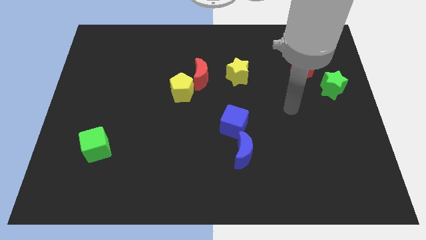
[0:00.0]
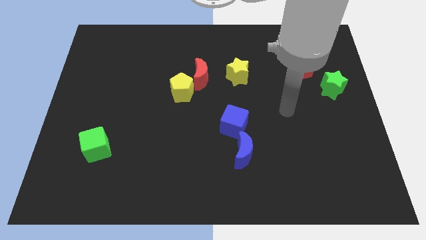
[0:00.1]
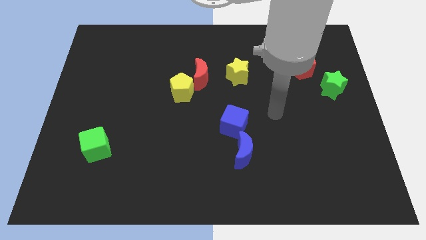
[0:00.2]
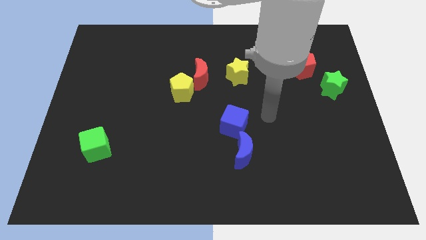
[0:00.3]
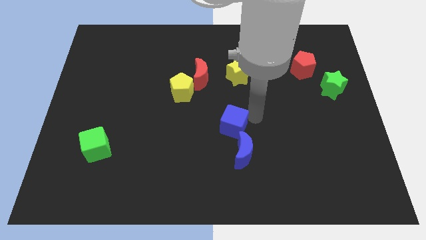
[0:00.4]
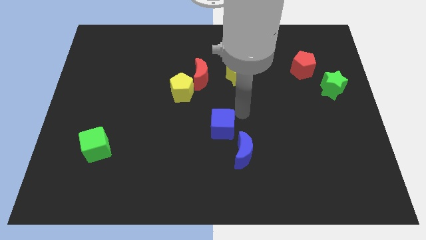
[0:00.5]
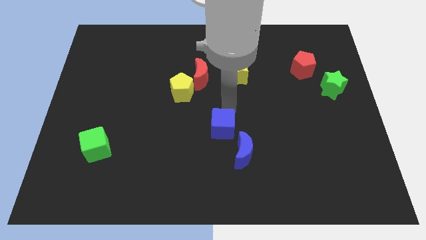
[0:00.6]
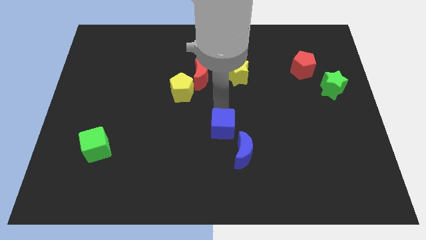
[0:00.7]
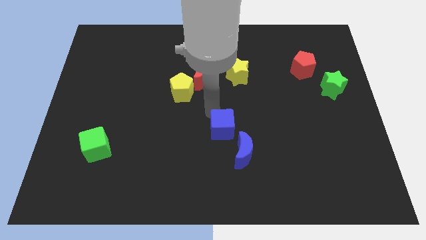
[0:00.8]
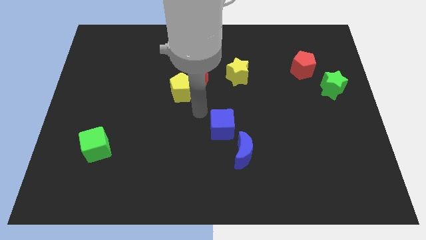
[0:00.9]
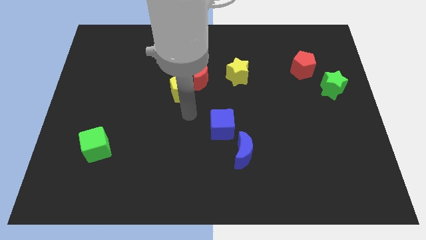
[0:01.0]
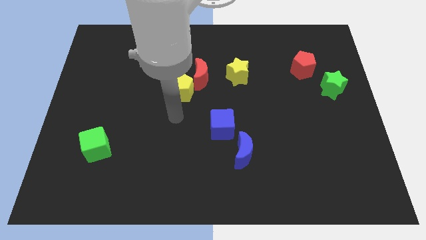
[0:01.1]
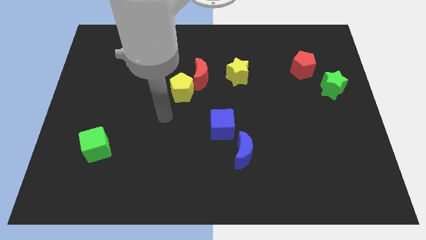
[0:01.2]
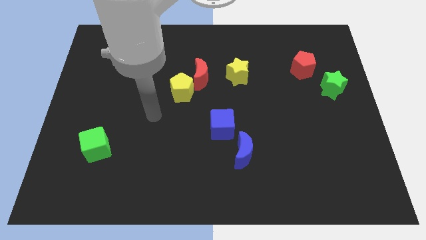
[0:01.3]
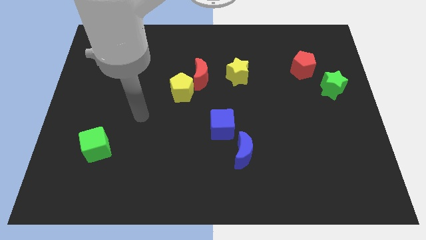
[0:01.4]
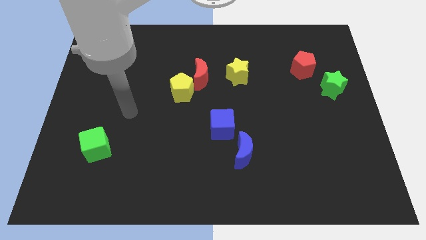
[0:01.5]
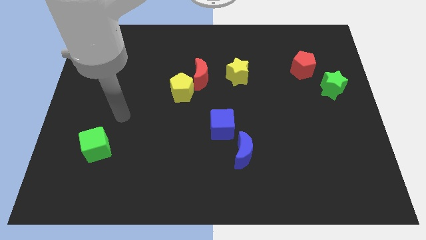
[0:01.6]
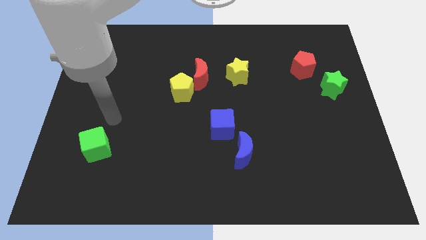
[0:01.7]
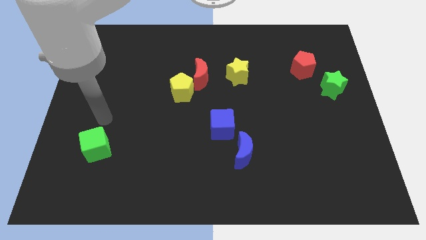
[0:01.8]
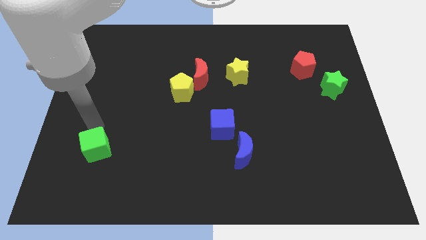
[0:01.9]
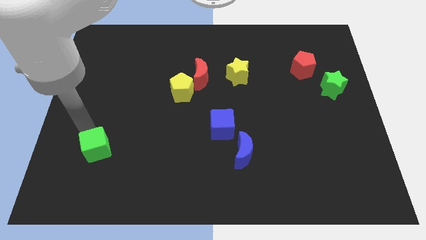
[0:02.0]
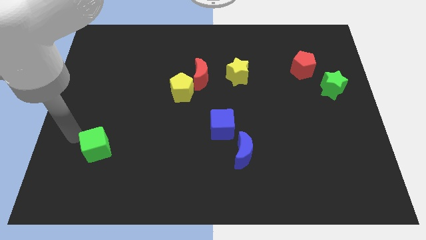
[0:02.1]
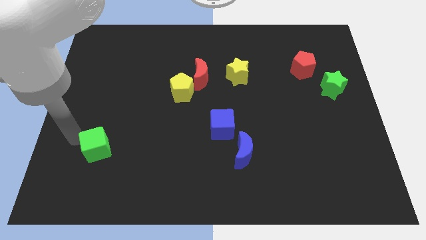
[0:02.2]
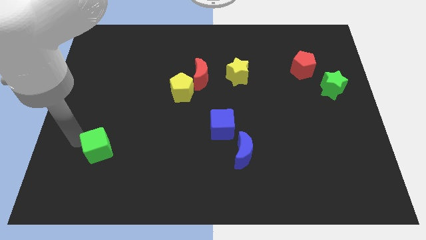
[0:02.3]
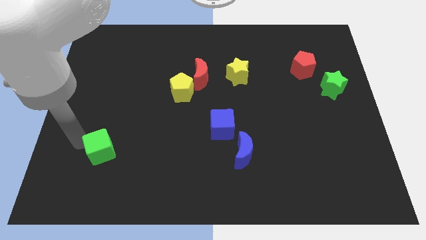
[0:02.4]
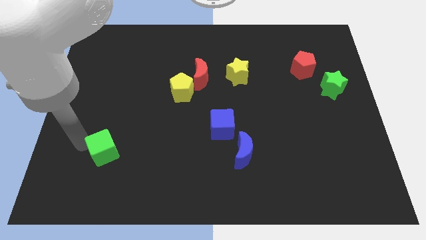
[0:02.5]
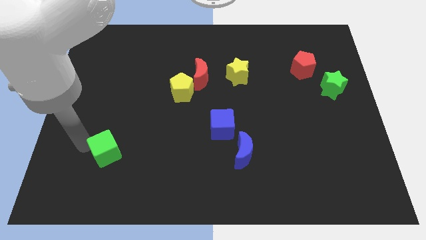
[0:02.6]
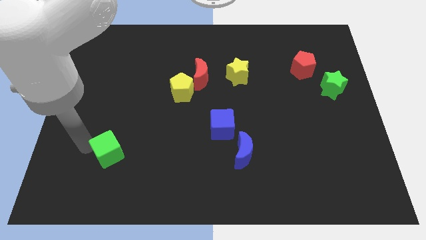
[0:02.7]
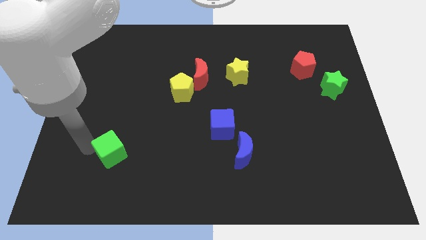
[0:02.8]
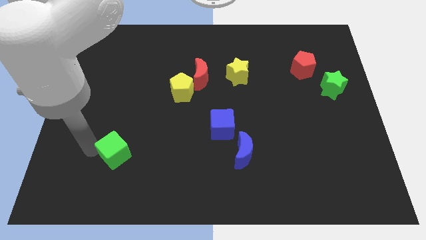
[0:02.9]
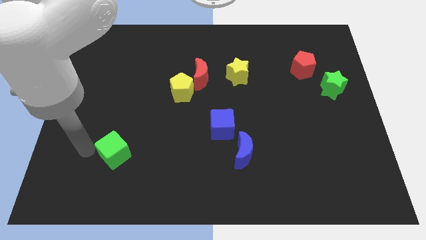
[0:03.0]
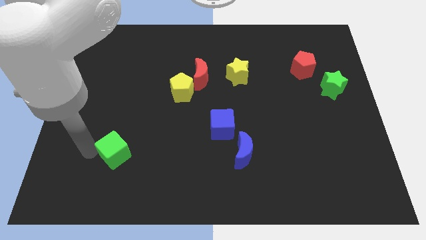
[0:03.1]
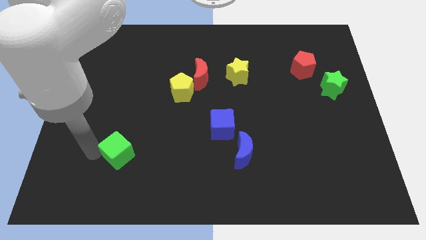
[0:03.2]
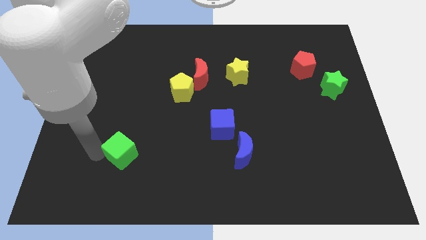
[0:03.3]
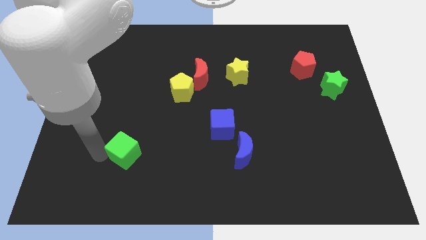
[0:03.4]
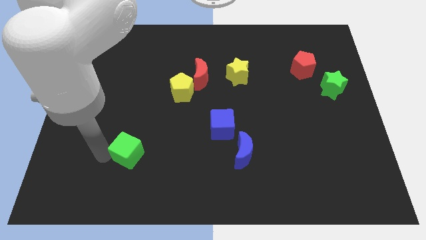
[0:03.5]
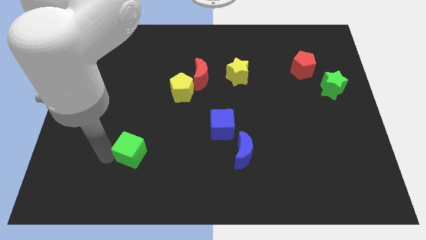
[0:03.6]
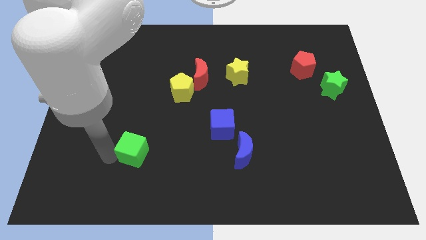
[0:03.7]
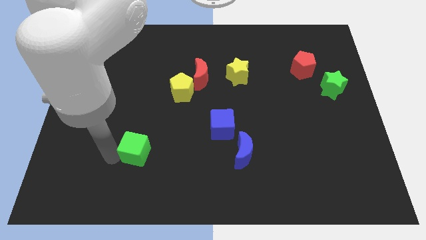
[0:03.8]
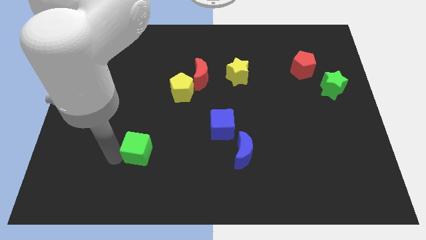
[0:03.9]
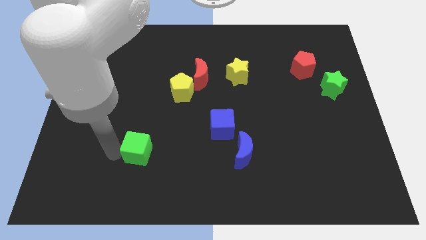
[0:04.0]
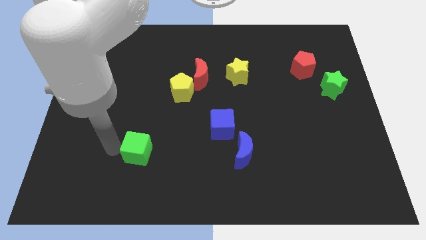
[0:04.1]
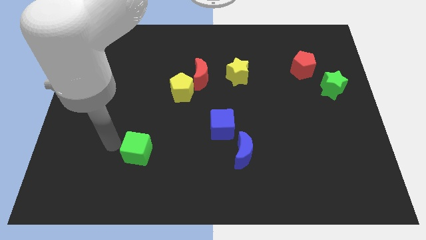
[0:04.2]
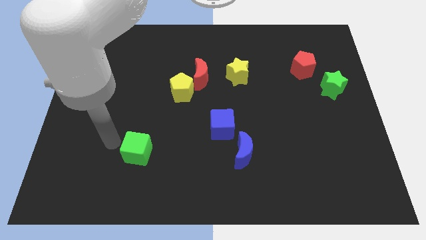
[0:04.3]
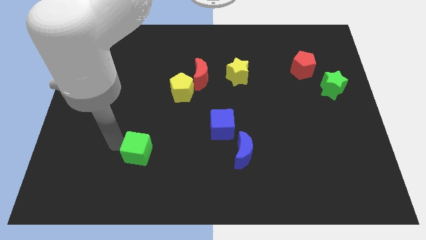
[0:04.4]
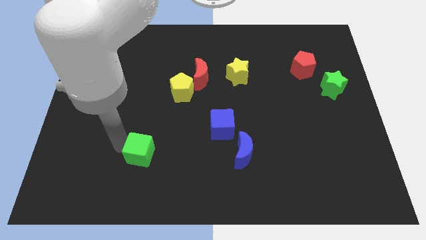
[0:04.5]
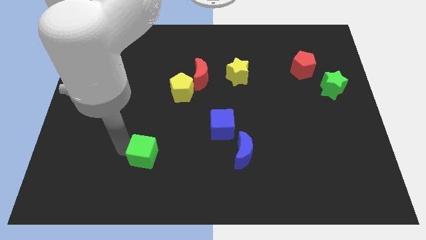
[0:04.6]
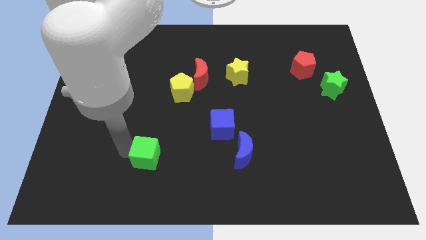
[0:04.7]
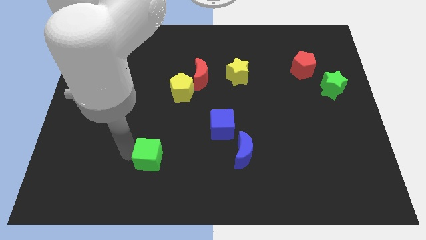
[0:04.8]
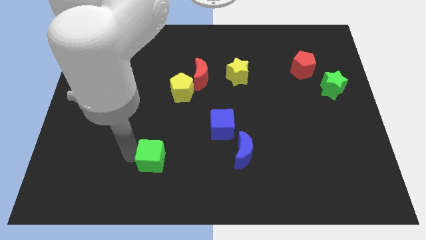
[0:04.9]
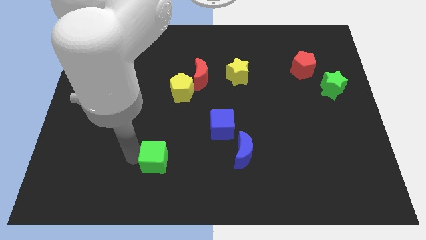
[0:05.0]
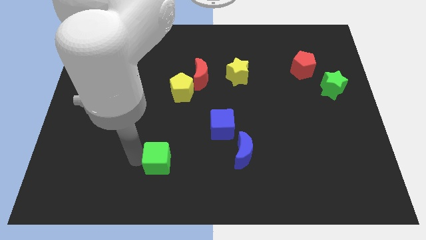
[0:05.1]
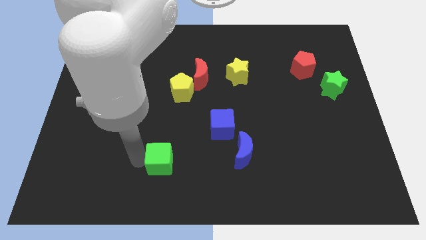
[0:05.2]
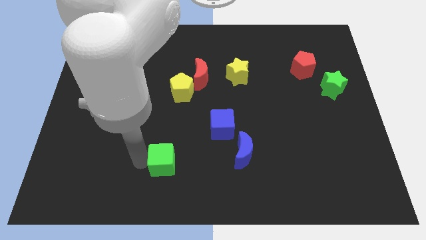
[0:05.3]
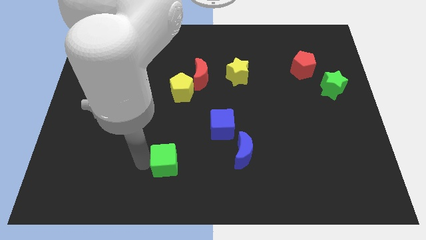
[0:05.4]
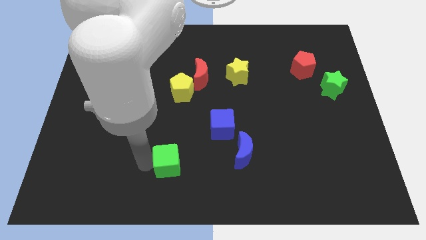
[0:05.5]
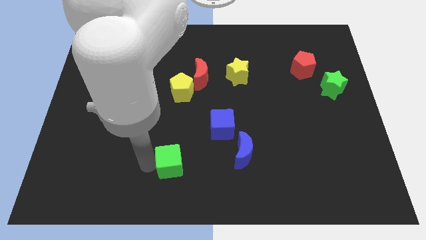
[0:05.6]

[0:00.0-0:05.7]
slide the green cube left of the blue moon

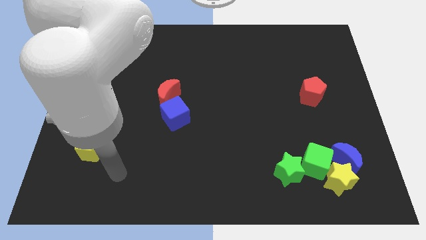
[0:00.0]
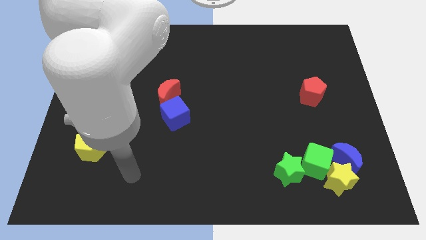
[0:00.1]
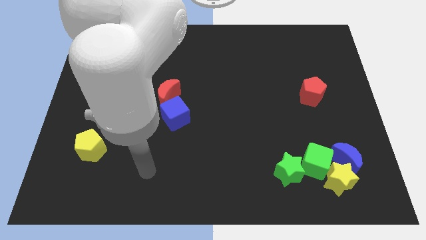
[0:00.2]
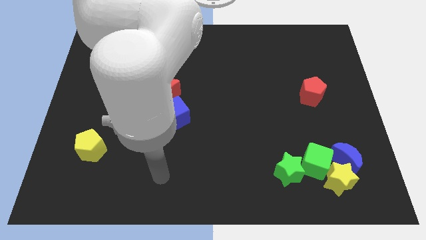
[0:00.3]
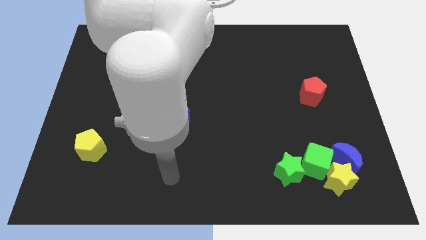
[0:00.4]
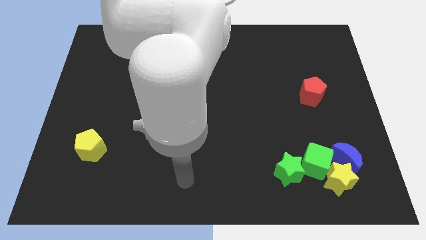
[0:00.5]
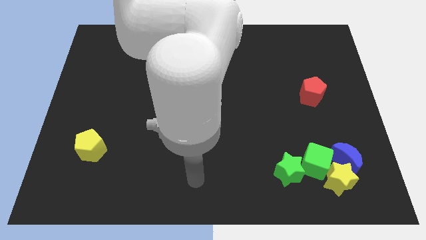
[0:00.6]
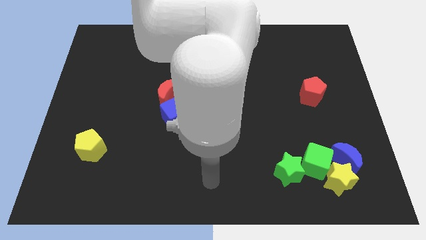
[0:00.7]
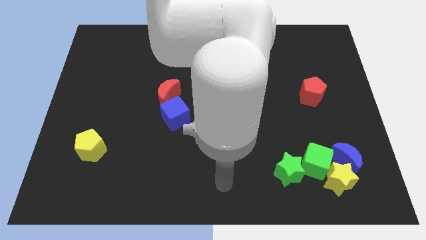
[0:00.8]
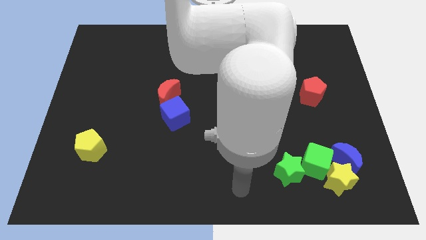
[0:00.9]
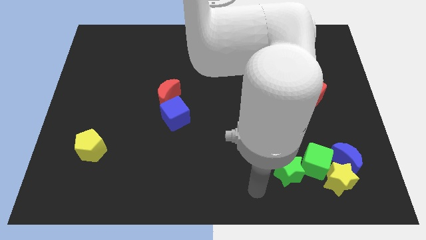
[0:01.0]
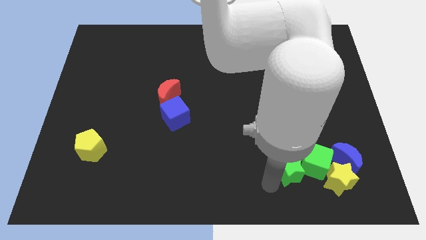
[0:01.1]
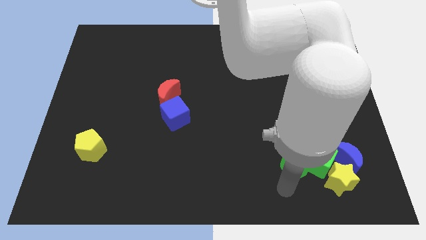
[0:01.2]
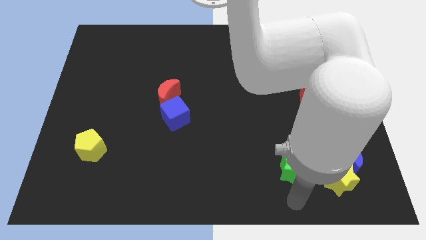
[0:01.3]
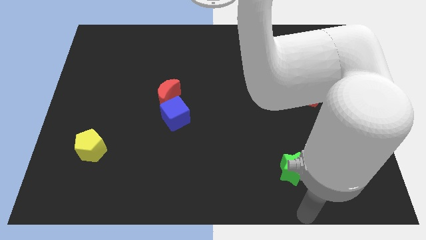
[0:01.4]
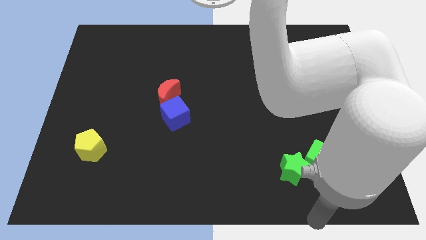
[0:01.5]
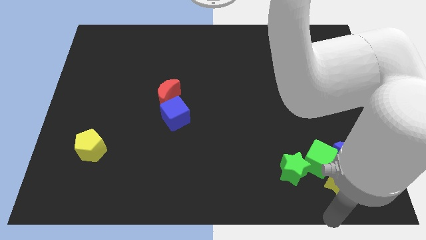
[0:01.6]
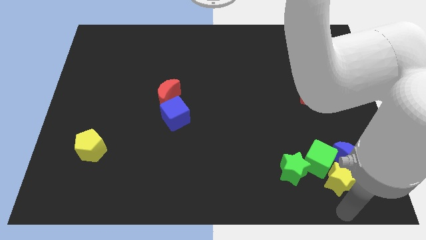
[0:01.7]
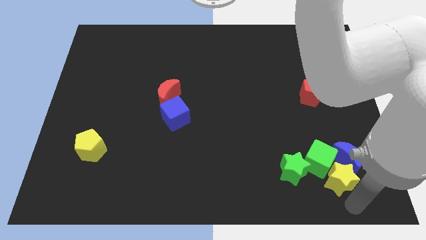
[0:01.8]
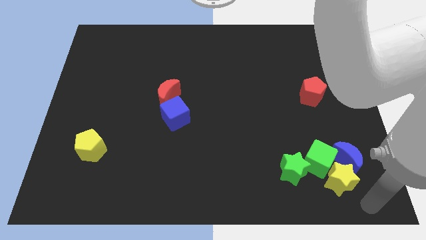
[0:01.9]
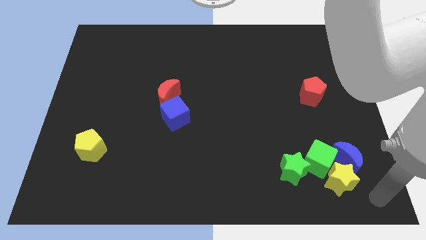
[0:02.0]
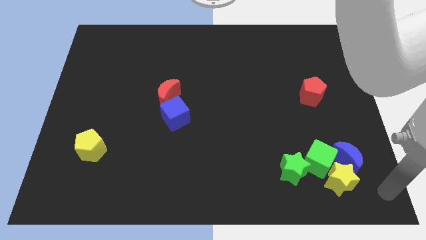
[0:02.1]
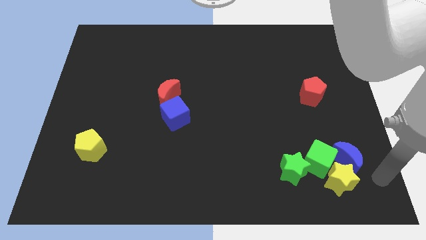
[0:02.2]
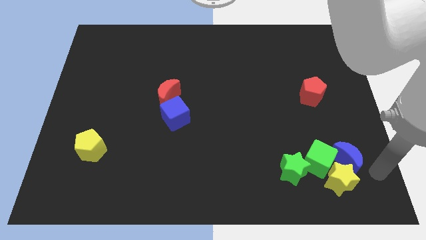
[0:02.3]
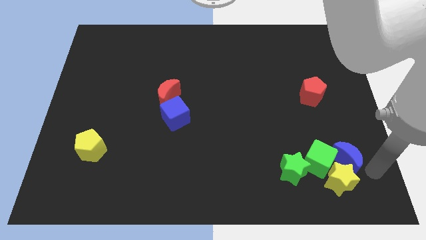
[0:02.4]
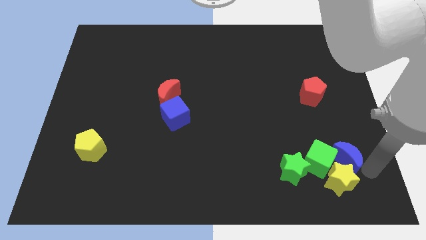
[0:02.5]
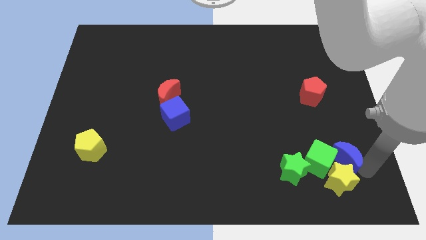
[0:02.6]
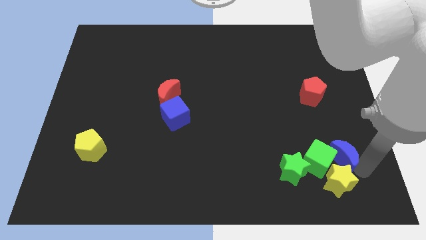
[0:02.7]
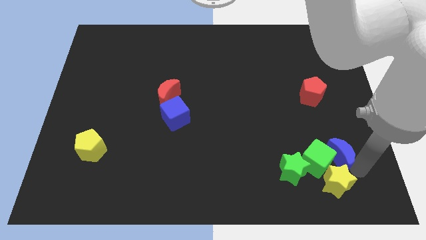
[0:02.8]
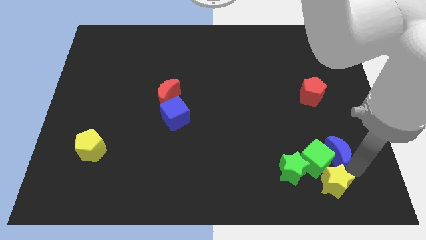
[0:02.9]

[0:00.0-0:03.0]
put the blue moon to the top right side of the green star
